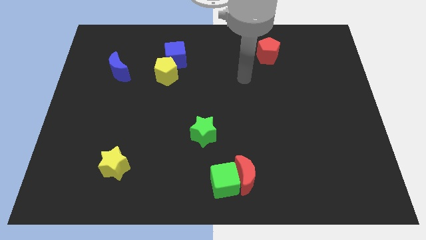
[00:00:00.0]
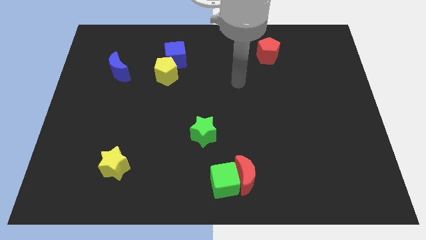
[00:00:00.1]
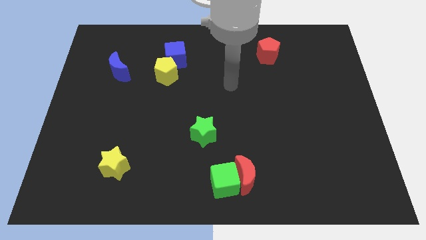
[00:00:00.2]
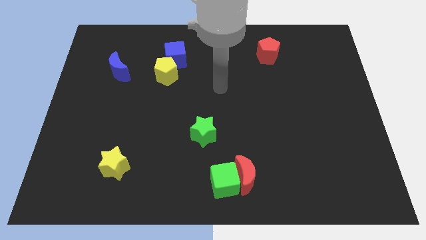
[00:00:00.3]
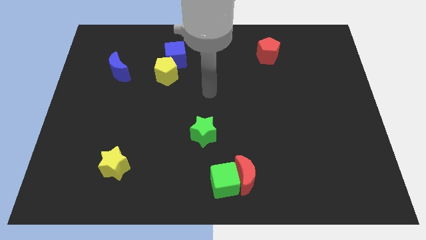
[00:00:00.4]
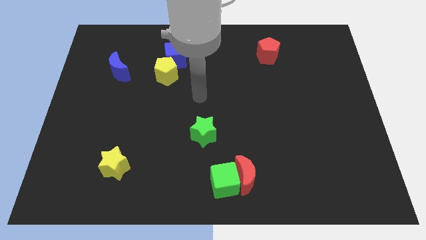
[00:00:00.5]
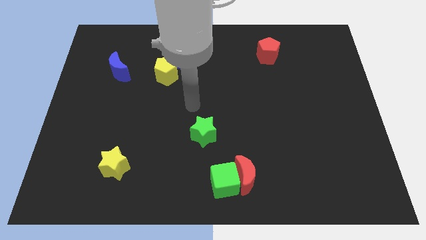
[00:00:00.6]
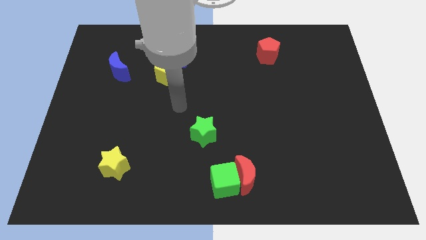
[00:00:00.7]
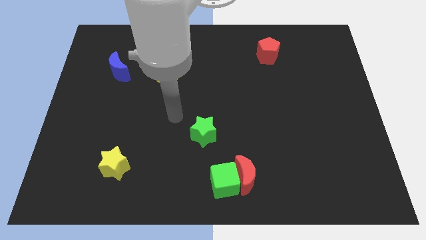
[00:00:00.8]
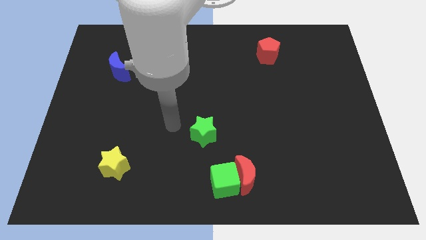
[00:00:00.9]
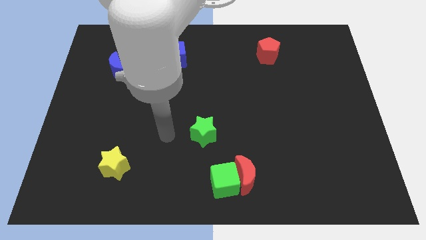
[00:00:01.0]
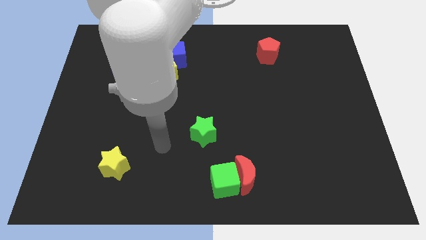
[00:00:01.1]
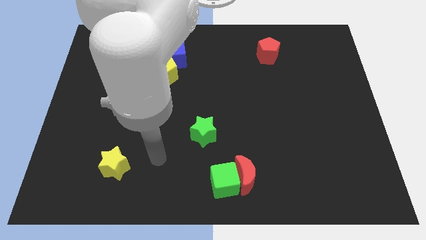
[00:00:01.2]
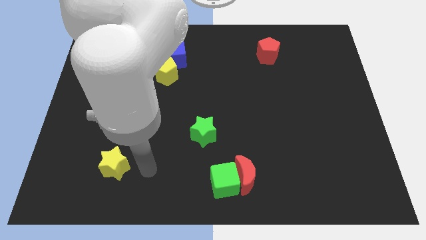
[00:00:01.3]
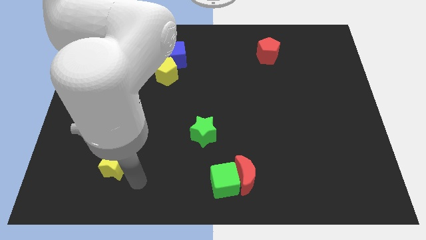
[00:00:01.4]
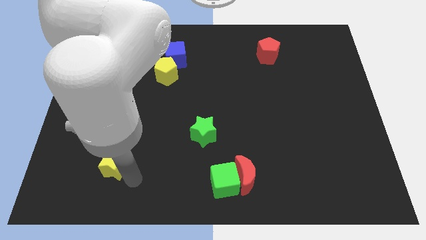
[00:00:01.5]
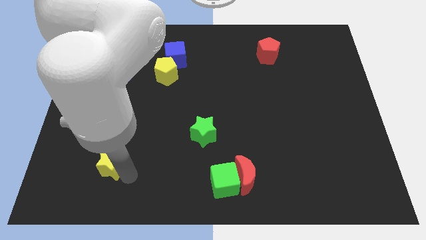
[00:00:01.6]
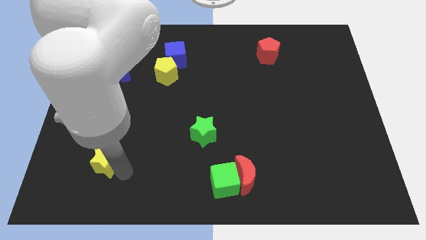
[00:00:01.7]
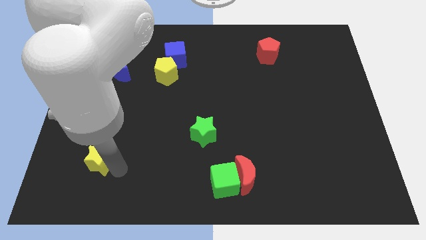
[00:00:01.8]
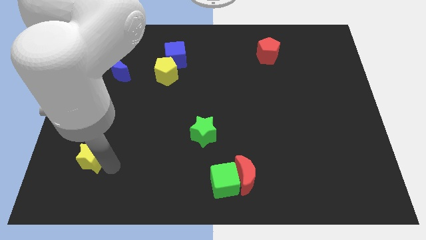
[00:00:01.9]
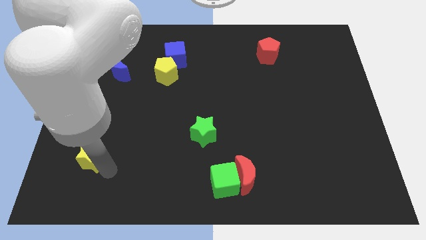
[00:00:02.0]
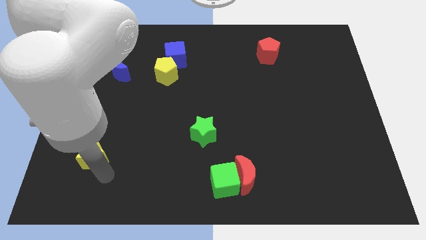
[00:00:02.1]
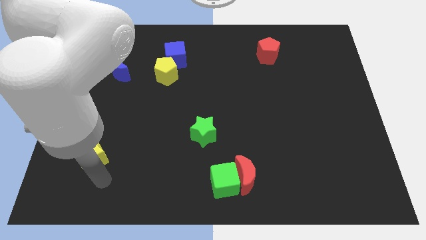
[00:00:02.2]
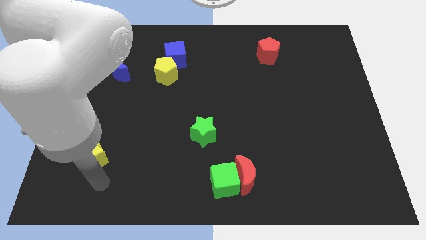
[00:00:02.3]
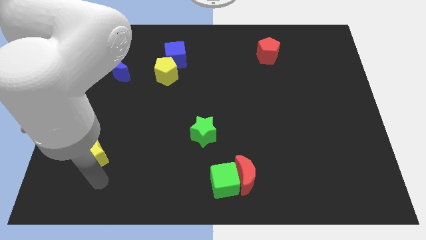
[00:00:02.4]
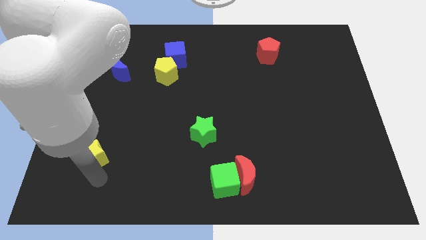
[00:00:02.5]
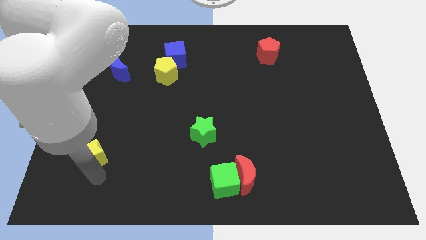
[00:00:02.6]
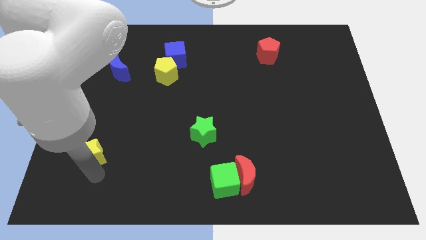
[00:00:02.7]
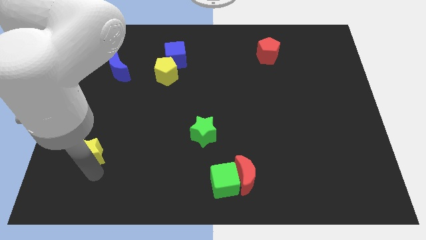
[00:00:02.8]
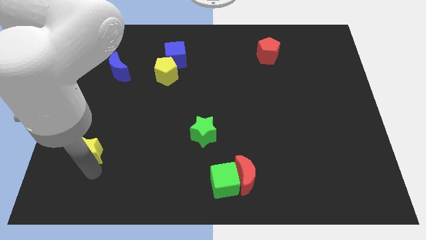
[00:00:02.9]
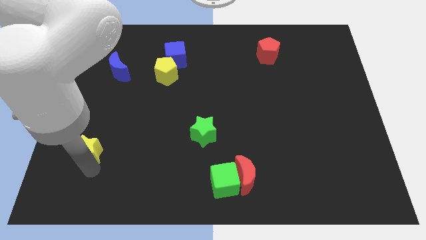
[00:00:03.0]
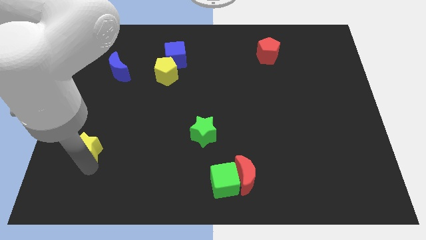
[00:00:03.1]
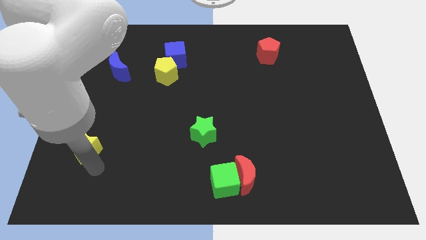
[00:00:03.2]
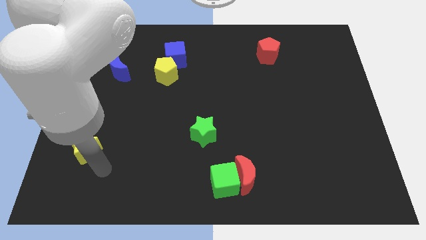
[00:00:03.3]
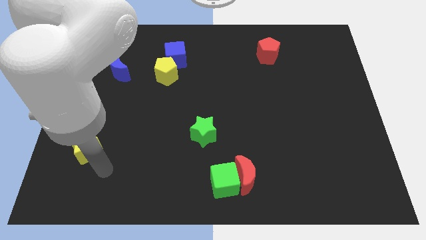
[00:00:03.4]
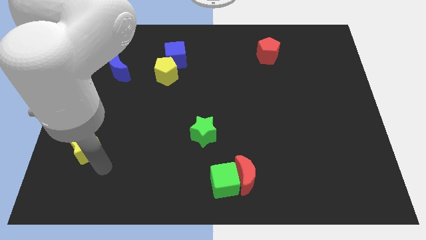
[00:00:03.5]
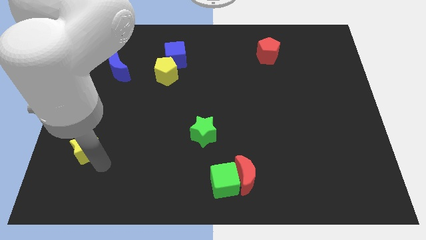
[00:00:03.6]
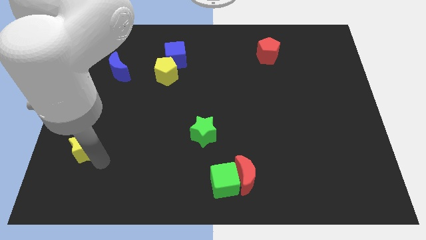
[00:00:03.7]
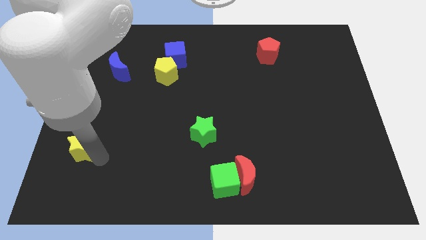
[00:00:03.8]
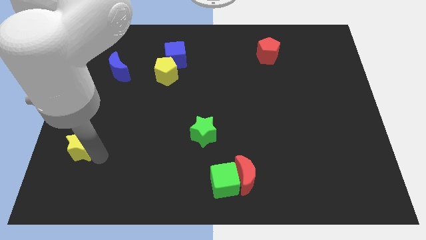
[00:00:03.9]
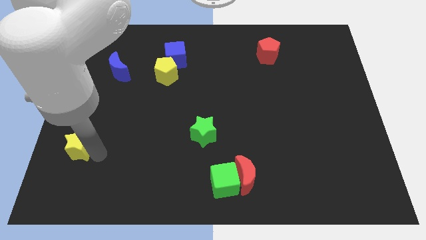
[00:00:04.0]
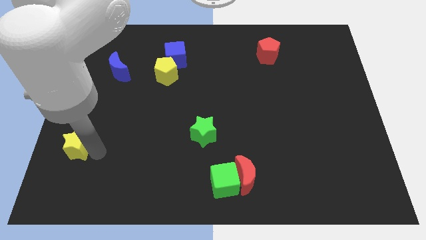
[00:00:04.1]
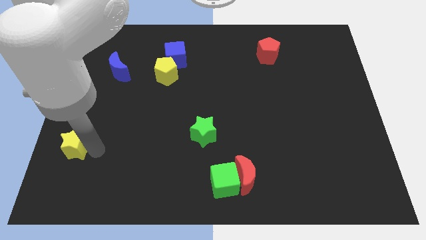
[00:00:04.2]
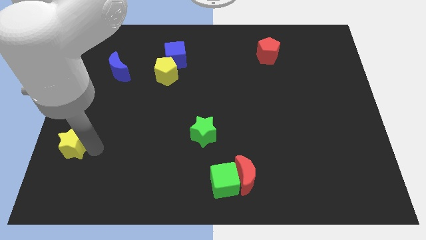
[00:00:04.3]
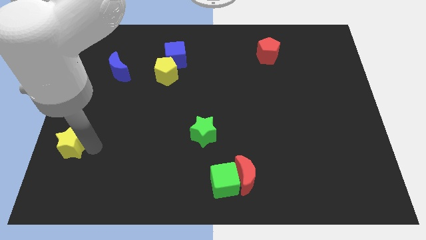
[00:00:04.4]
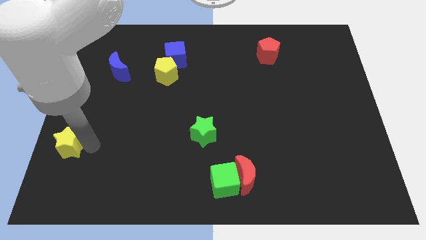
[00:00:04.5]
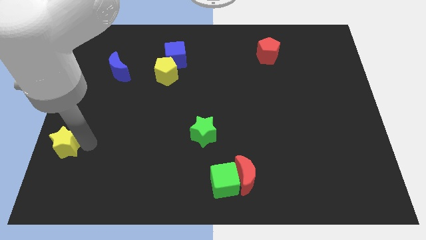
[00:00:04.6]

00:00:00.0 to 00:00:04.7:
put the yellow star to the left side of the board

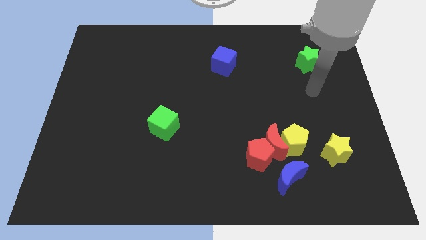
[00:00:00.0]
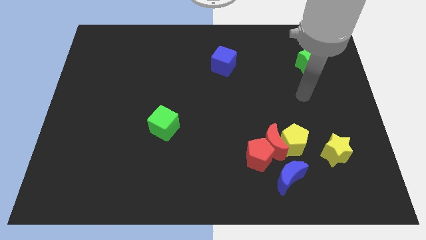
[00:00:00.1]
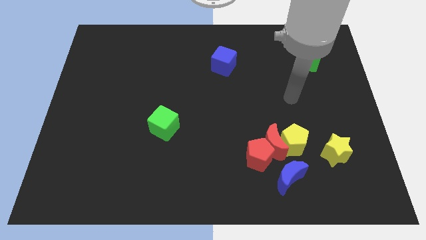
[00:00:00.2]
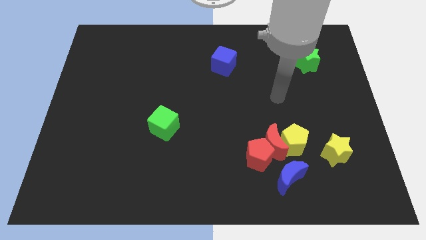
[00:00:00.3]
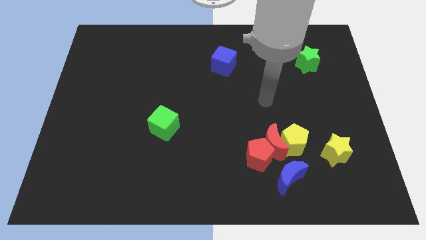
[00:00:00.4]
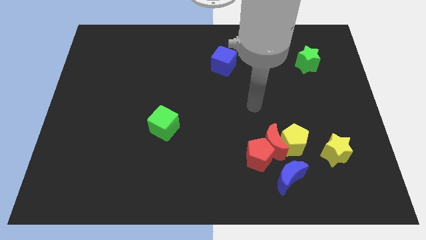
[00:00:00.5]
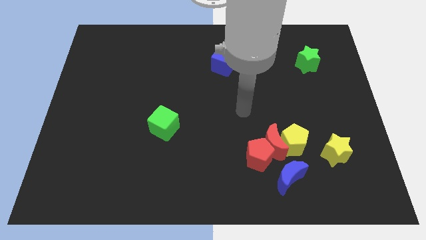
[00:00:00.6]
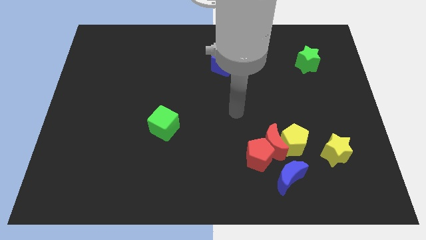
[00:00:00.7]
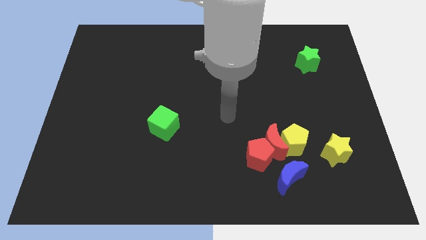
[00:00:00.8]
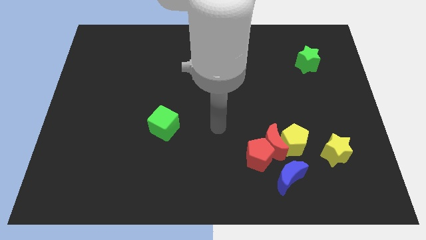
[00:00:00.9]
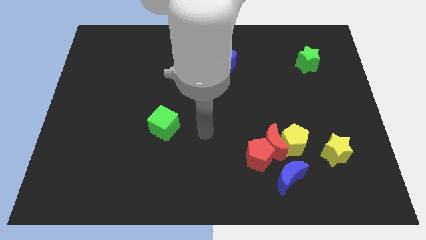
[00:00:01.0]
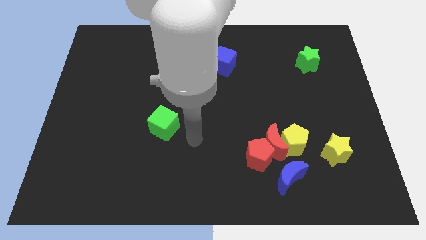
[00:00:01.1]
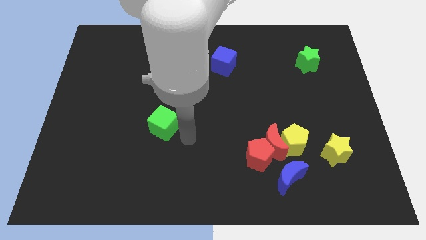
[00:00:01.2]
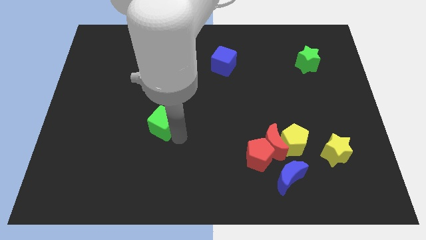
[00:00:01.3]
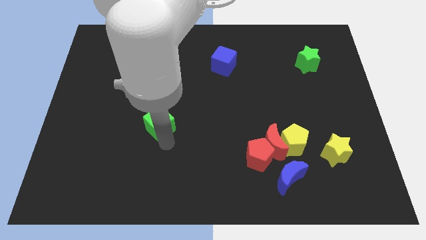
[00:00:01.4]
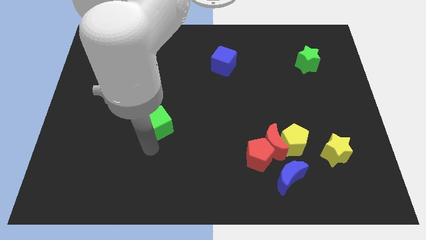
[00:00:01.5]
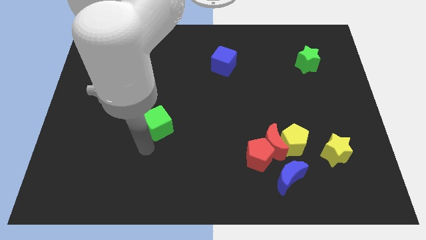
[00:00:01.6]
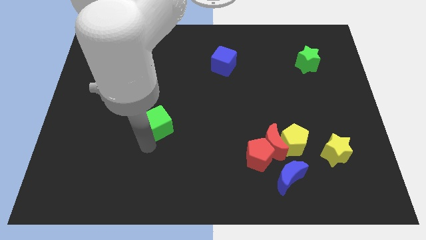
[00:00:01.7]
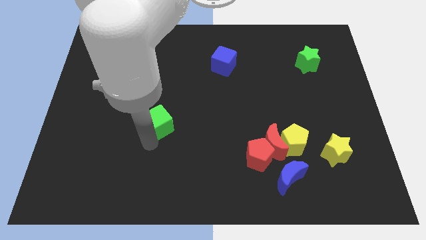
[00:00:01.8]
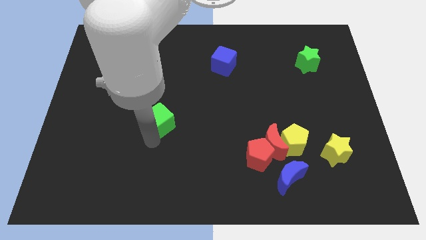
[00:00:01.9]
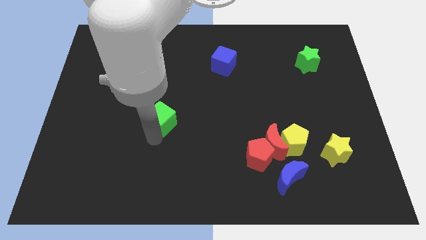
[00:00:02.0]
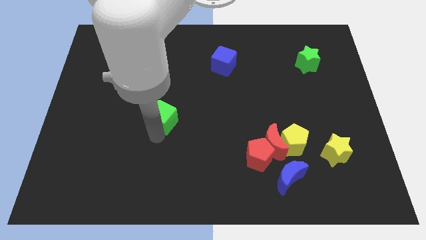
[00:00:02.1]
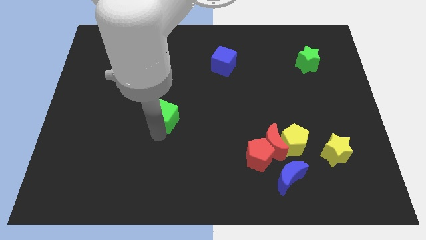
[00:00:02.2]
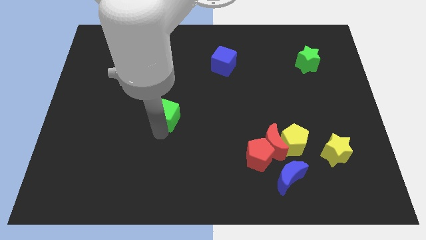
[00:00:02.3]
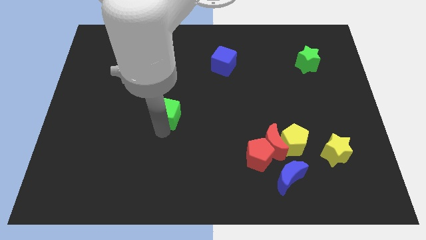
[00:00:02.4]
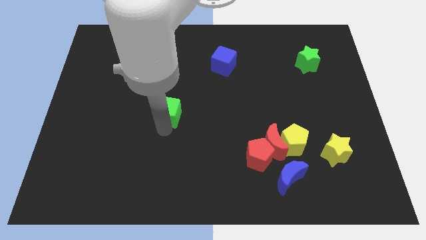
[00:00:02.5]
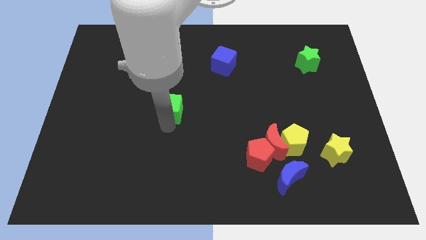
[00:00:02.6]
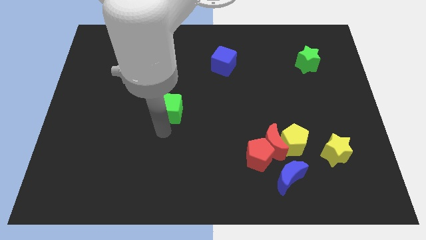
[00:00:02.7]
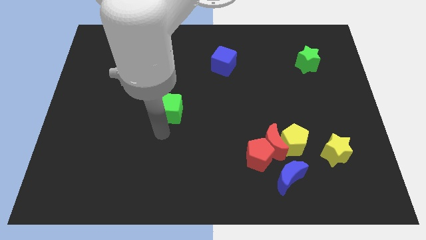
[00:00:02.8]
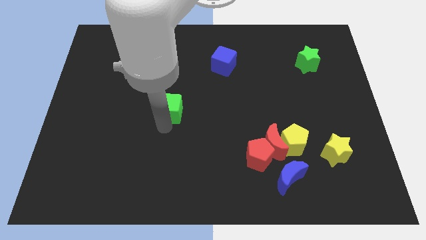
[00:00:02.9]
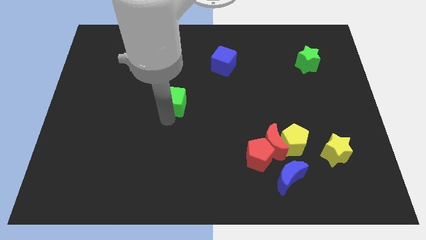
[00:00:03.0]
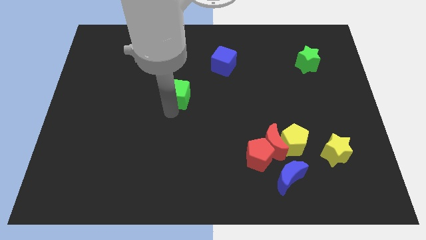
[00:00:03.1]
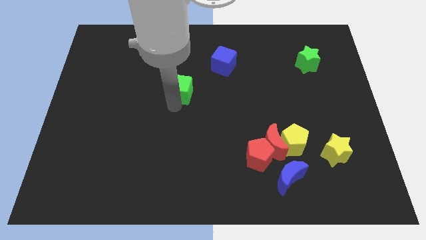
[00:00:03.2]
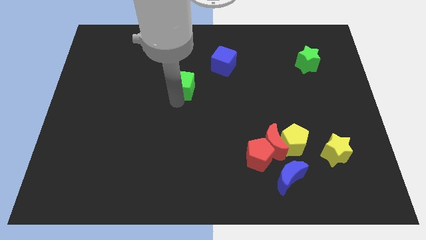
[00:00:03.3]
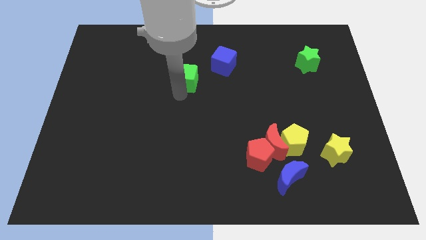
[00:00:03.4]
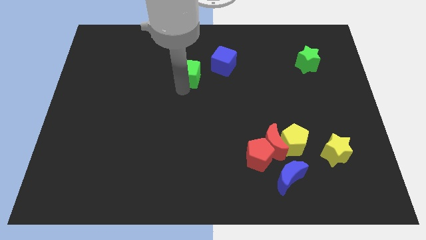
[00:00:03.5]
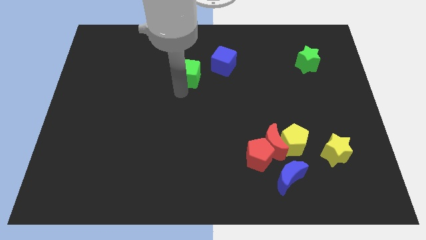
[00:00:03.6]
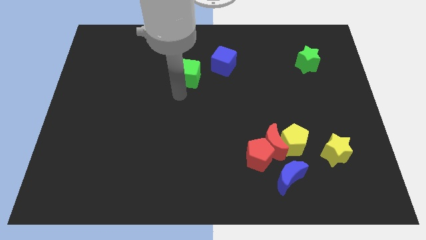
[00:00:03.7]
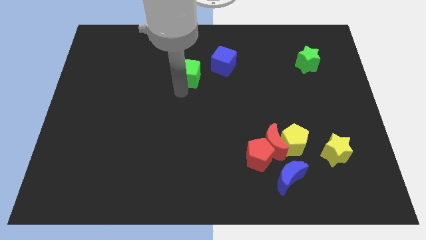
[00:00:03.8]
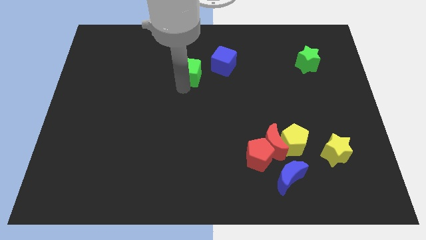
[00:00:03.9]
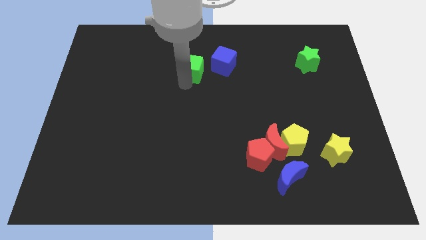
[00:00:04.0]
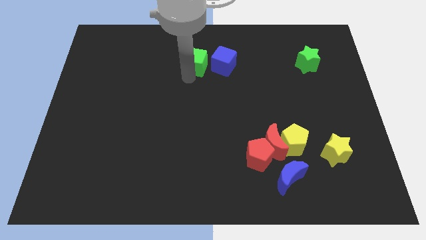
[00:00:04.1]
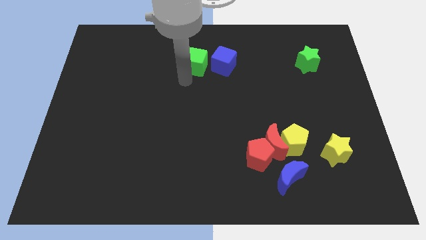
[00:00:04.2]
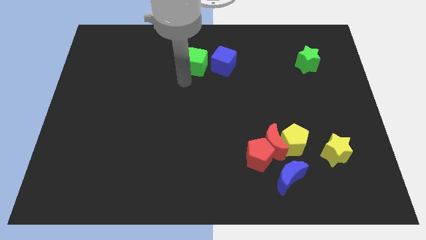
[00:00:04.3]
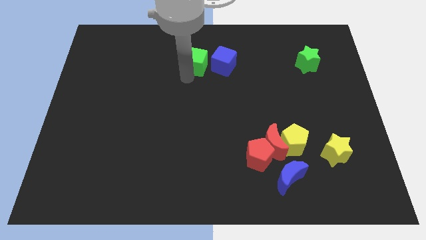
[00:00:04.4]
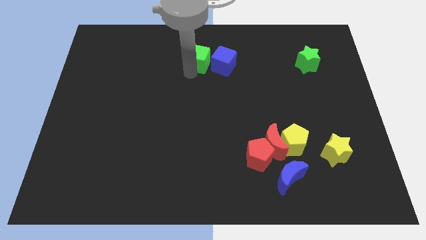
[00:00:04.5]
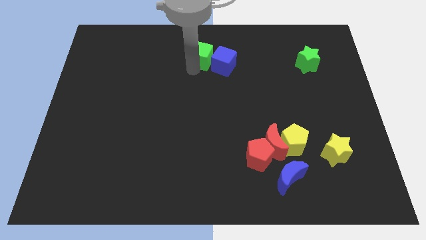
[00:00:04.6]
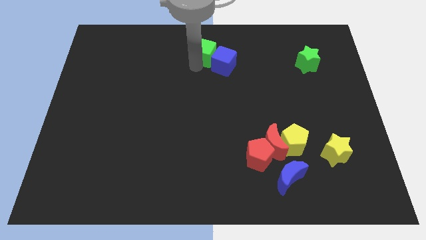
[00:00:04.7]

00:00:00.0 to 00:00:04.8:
push the green cube to the towards your base
